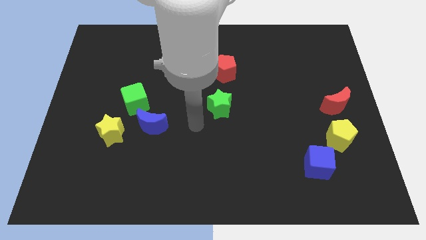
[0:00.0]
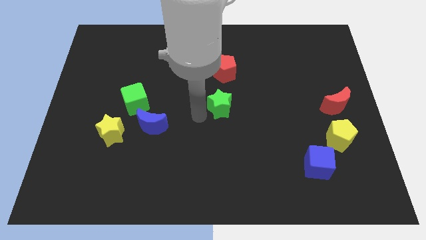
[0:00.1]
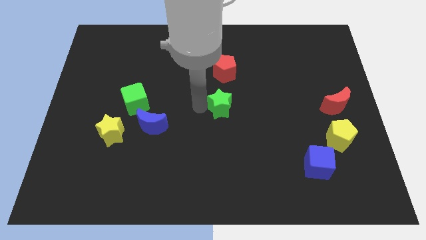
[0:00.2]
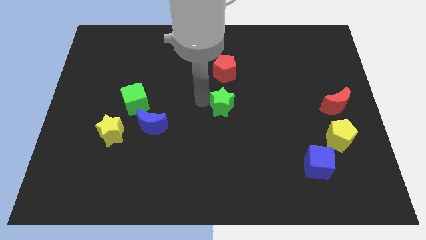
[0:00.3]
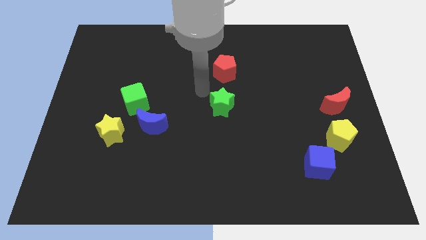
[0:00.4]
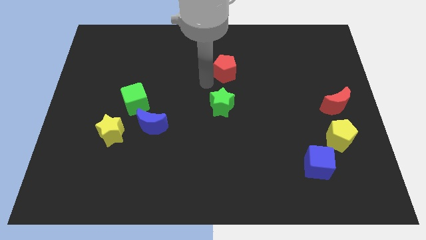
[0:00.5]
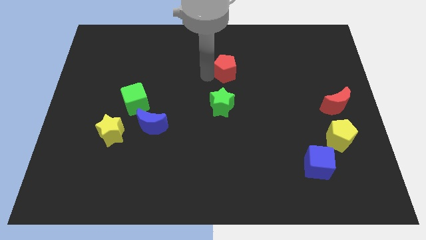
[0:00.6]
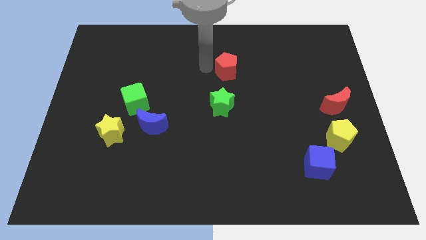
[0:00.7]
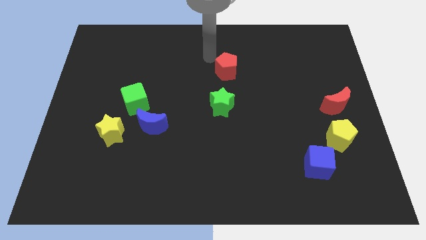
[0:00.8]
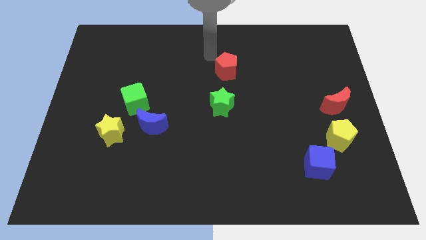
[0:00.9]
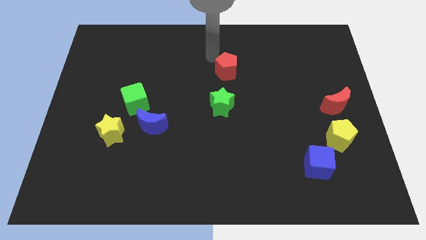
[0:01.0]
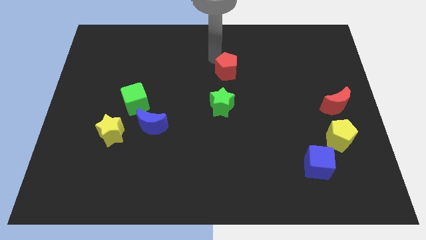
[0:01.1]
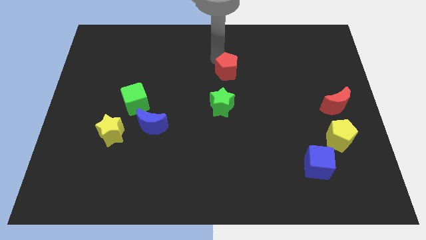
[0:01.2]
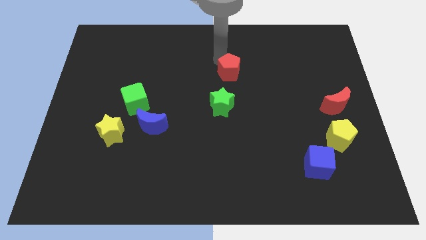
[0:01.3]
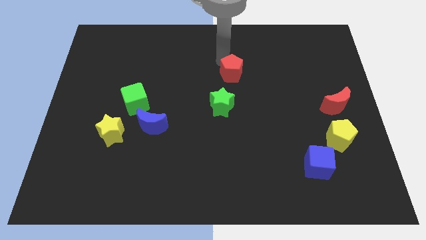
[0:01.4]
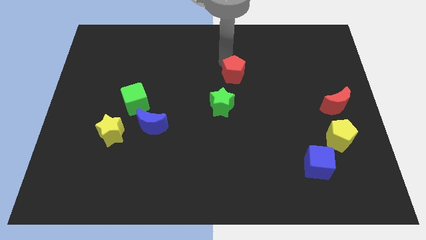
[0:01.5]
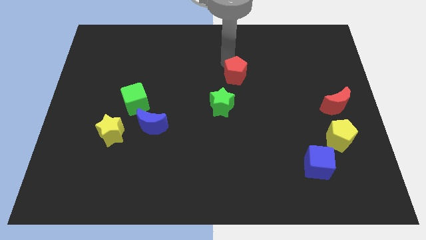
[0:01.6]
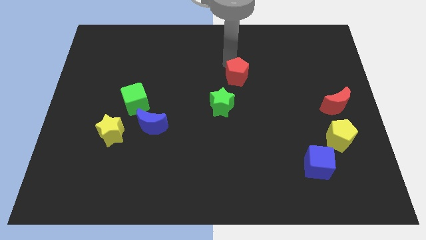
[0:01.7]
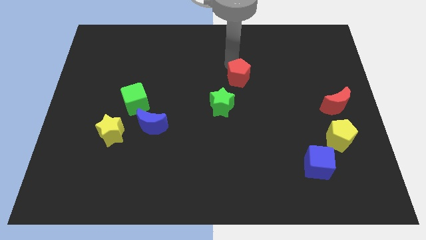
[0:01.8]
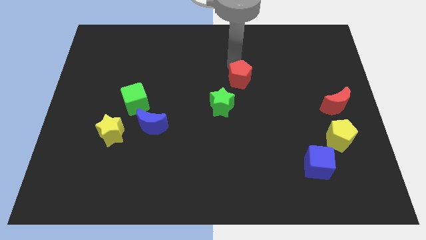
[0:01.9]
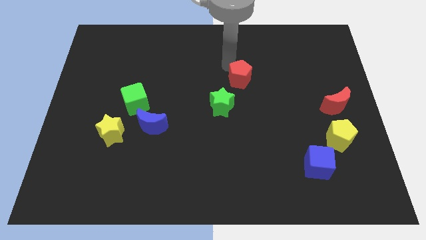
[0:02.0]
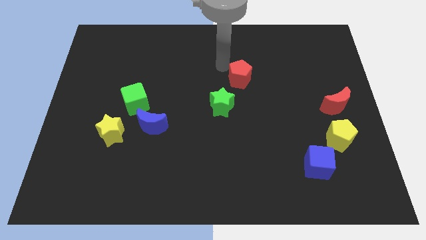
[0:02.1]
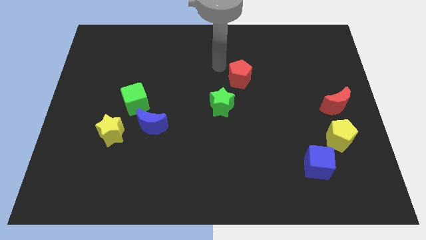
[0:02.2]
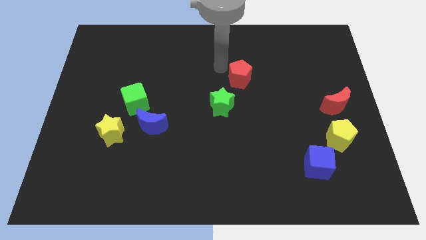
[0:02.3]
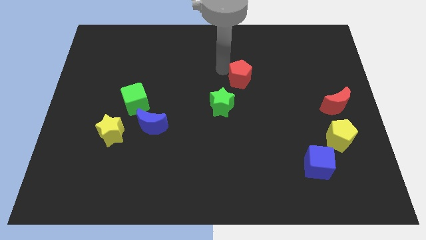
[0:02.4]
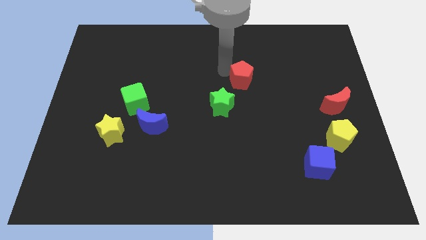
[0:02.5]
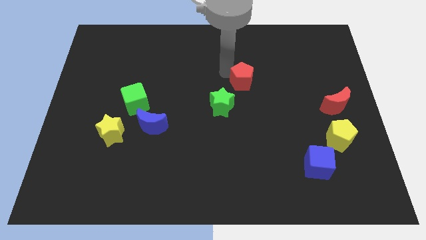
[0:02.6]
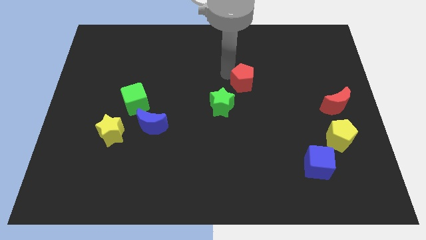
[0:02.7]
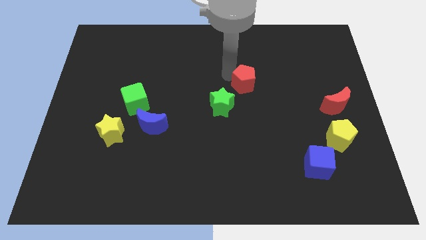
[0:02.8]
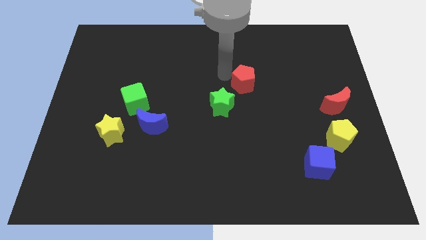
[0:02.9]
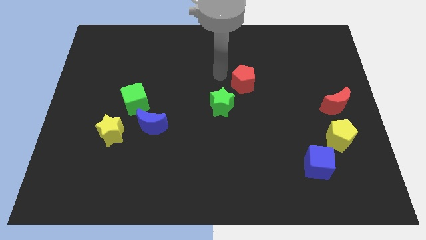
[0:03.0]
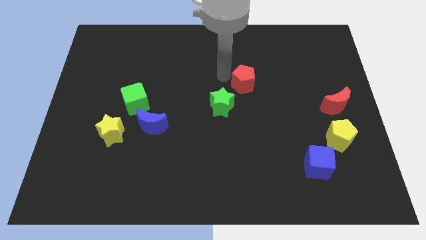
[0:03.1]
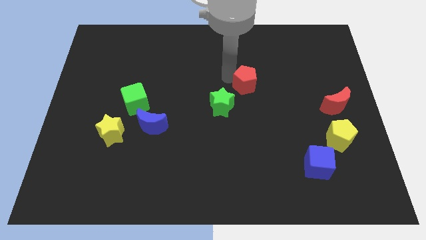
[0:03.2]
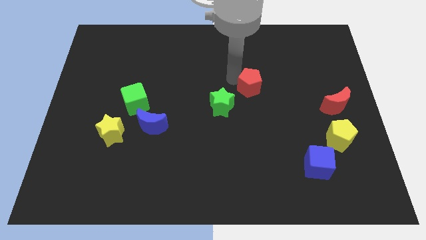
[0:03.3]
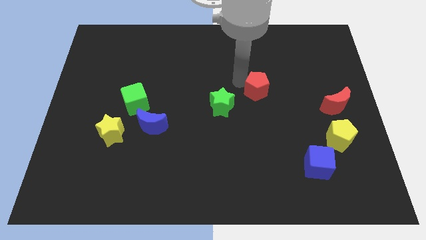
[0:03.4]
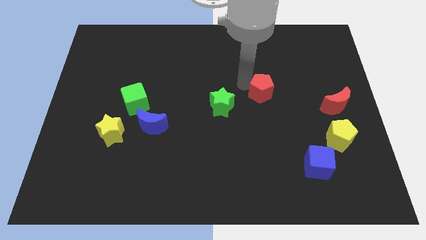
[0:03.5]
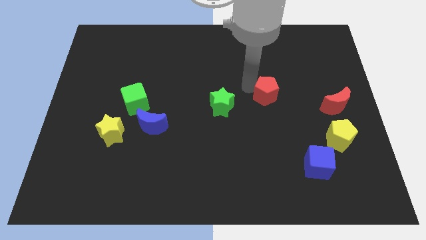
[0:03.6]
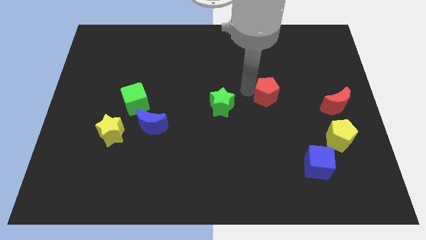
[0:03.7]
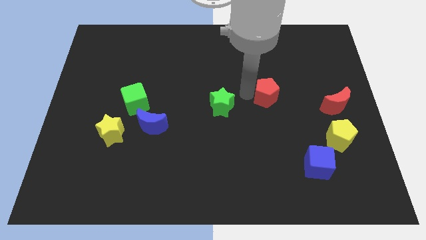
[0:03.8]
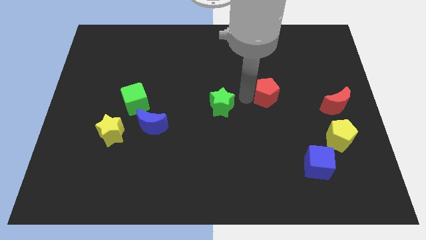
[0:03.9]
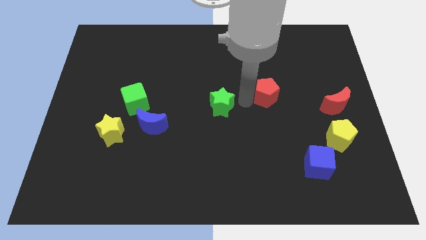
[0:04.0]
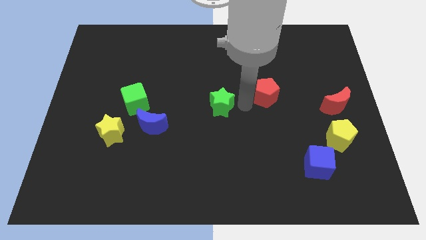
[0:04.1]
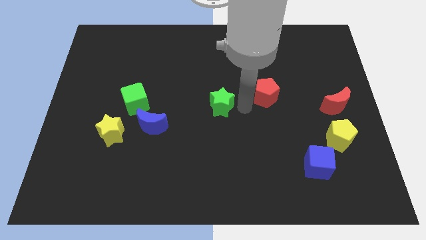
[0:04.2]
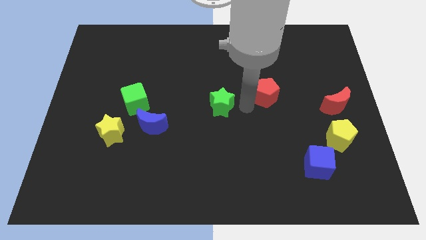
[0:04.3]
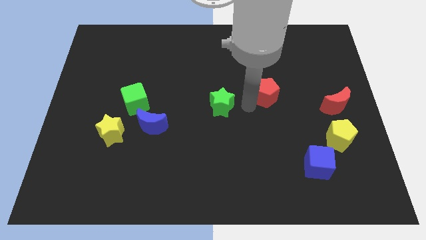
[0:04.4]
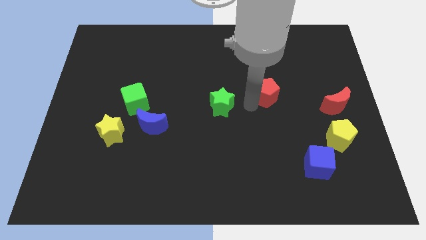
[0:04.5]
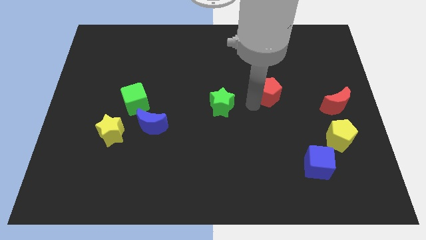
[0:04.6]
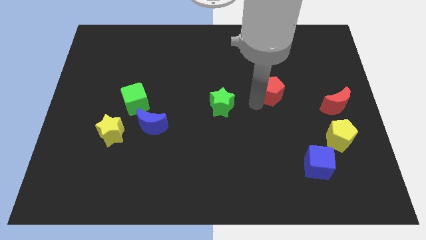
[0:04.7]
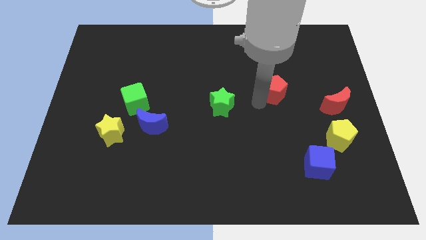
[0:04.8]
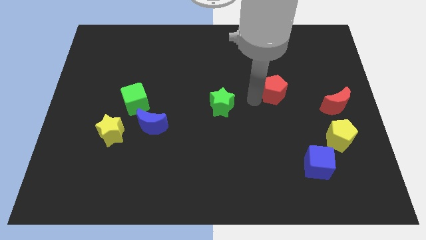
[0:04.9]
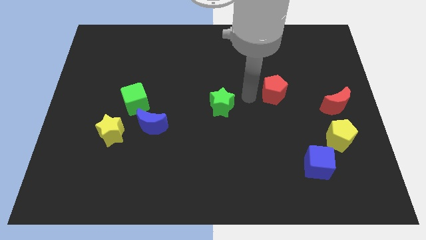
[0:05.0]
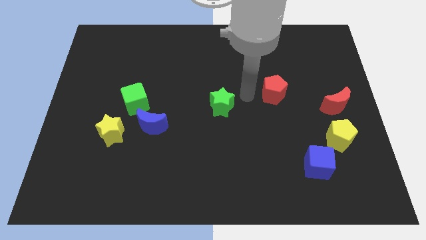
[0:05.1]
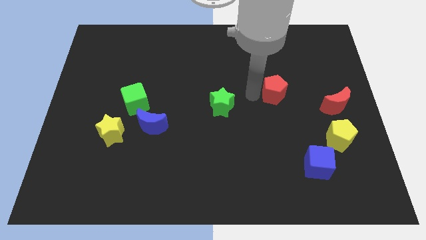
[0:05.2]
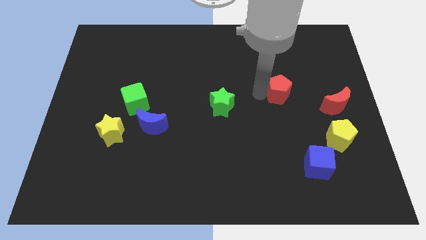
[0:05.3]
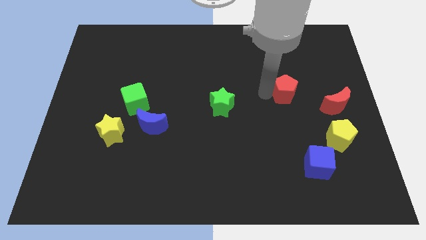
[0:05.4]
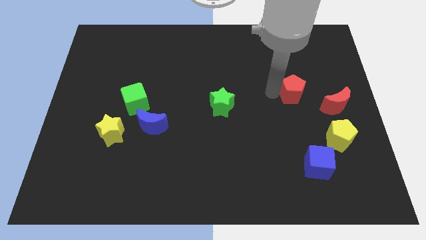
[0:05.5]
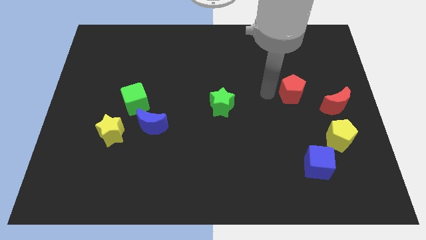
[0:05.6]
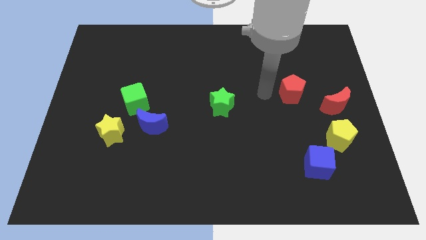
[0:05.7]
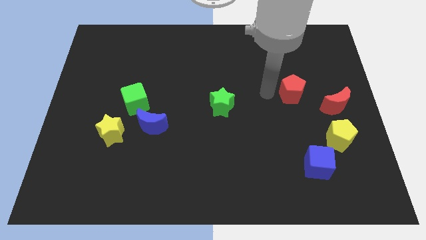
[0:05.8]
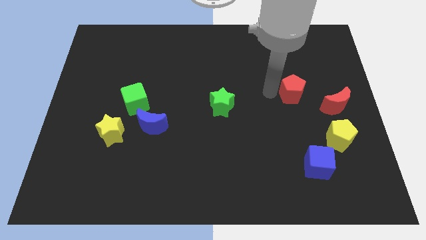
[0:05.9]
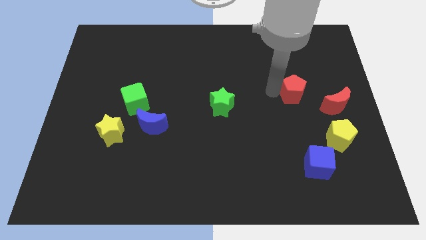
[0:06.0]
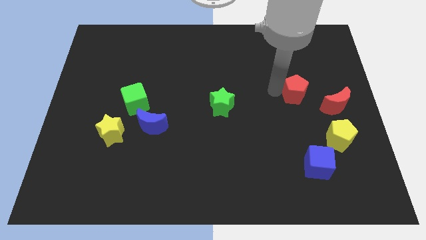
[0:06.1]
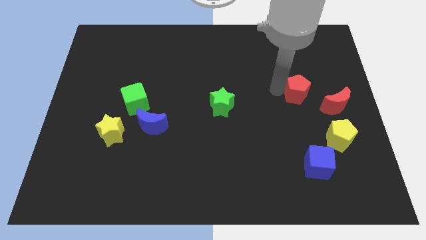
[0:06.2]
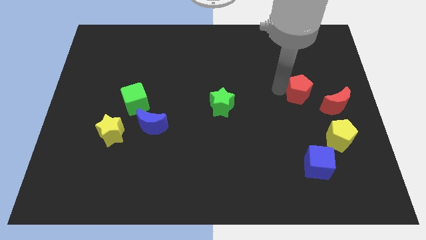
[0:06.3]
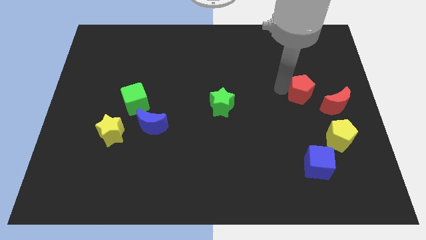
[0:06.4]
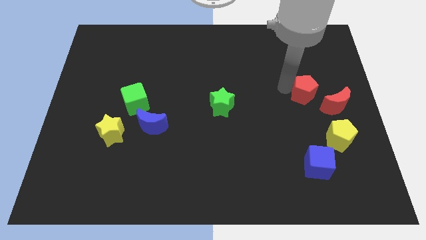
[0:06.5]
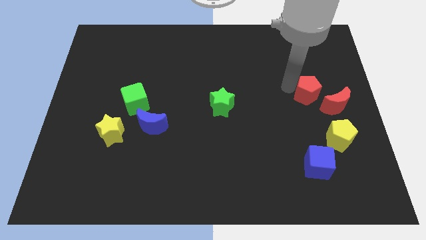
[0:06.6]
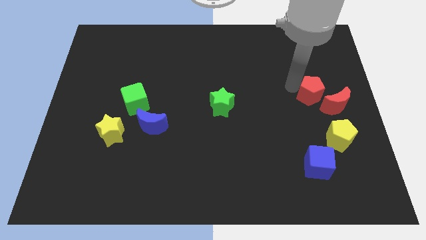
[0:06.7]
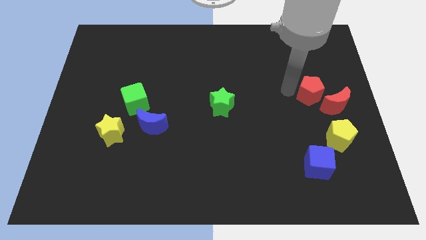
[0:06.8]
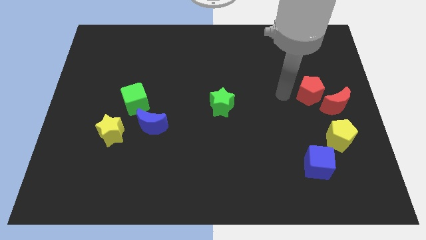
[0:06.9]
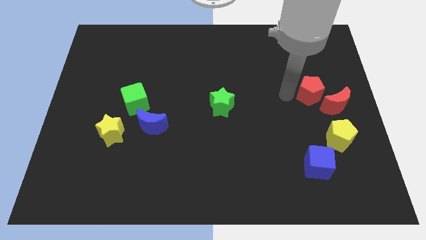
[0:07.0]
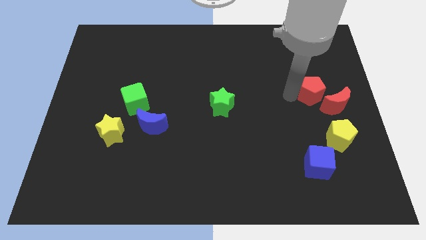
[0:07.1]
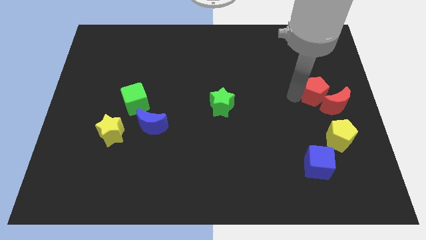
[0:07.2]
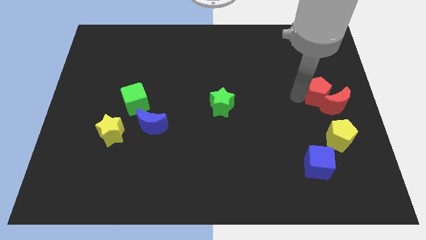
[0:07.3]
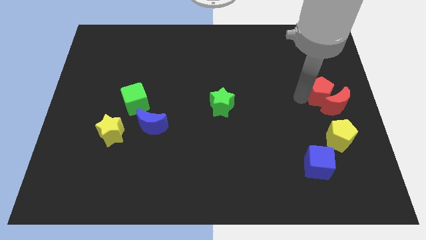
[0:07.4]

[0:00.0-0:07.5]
put the red pentagon to the center right

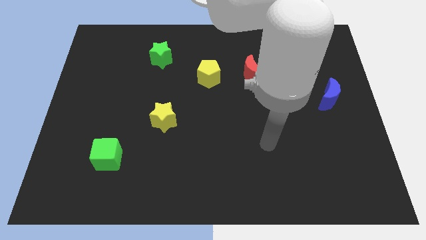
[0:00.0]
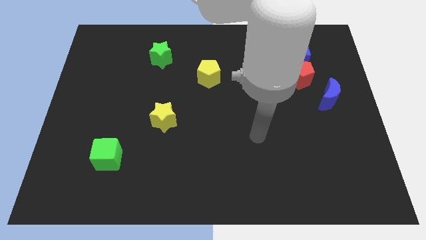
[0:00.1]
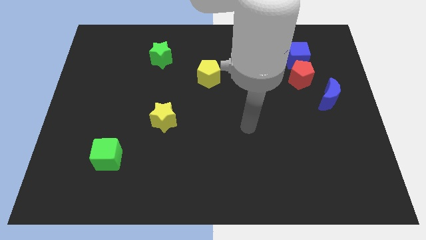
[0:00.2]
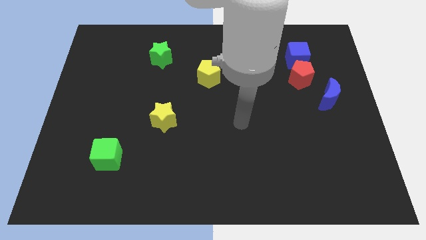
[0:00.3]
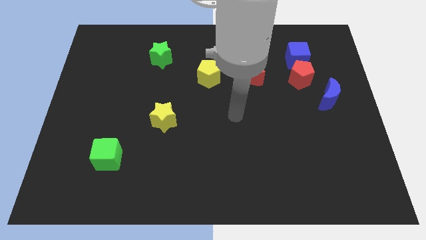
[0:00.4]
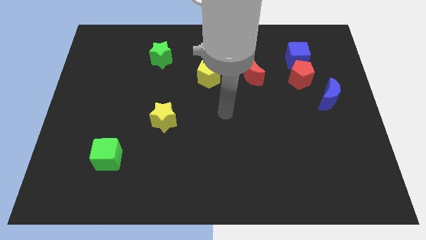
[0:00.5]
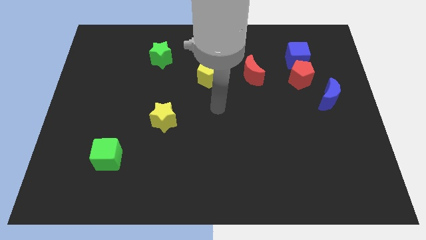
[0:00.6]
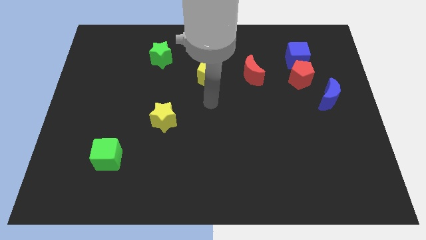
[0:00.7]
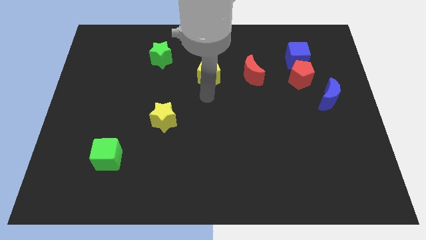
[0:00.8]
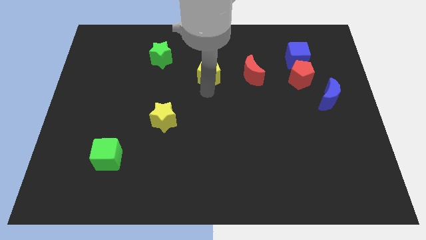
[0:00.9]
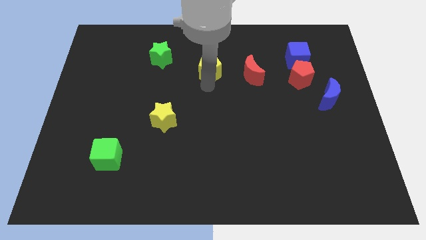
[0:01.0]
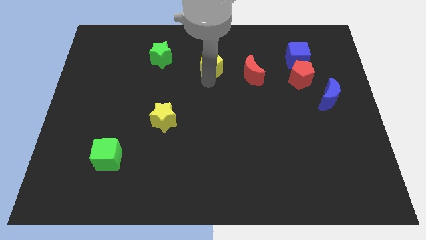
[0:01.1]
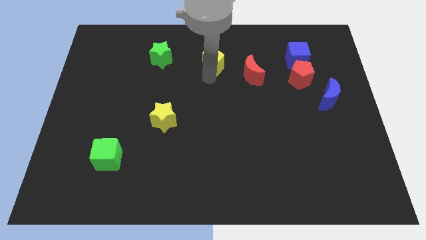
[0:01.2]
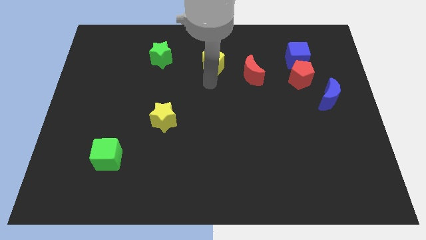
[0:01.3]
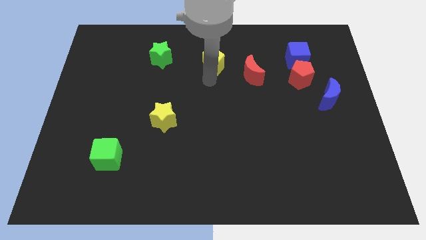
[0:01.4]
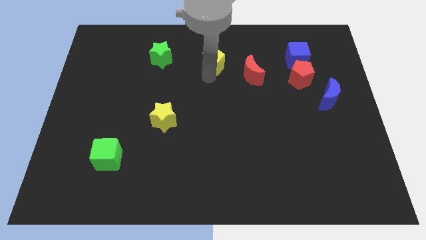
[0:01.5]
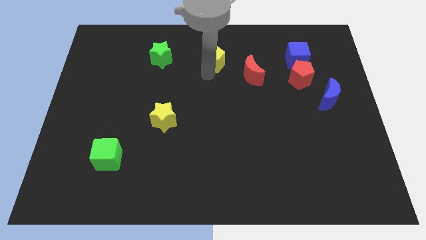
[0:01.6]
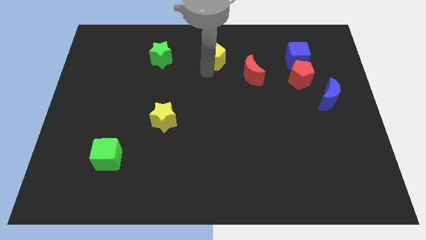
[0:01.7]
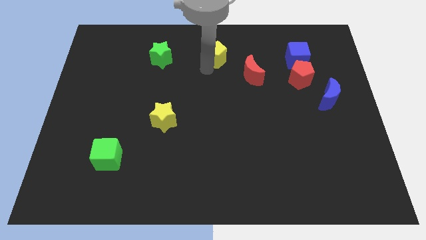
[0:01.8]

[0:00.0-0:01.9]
slide the yellow pentagon to the towards your base
